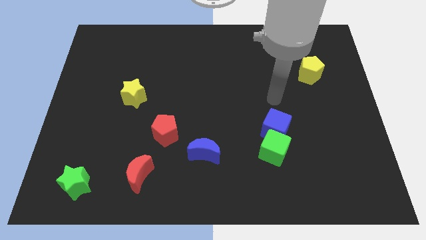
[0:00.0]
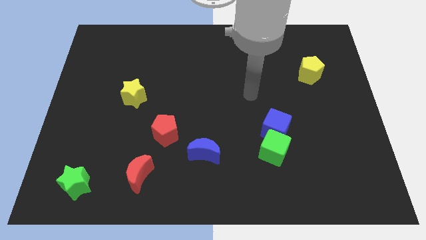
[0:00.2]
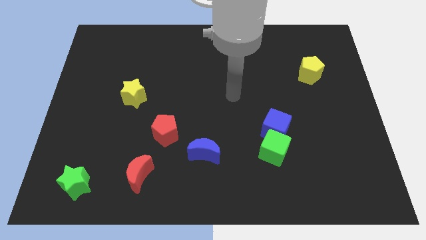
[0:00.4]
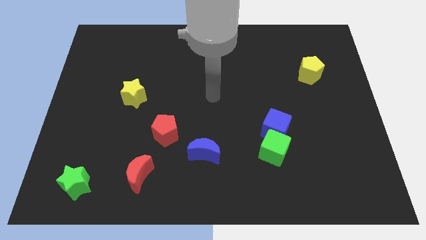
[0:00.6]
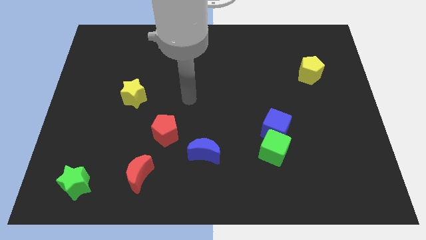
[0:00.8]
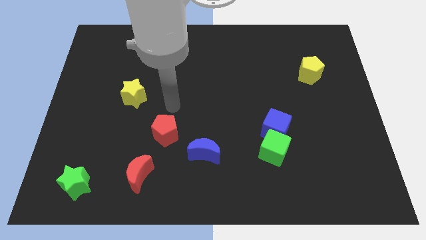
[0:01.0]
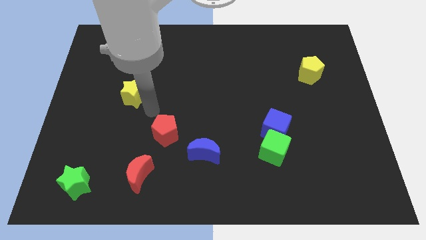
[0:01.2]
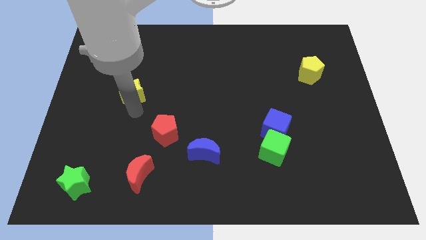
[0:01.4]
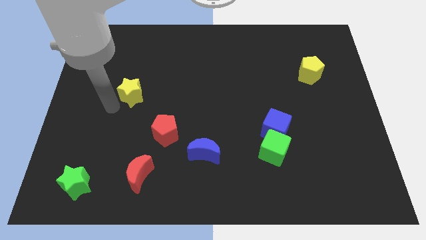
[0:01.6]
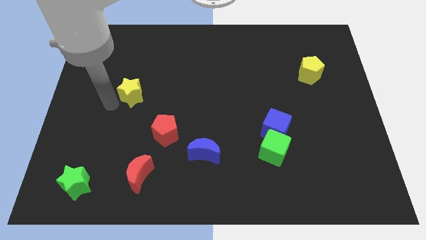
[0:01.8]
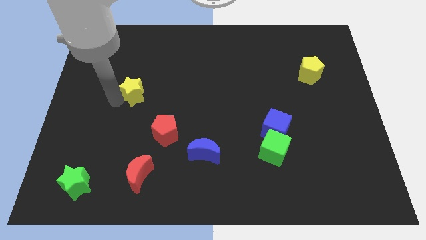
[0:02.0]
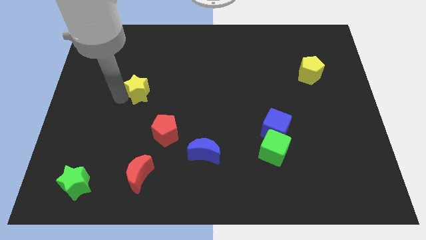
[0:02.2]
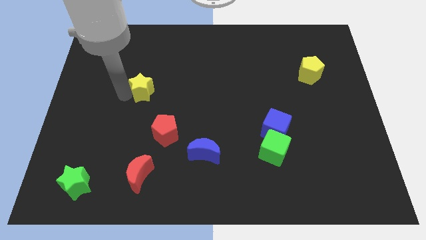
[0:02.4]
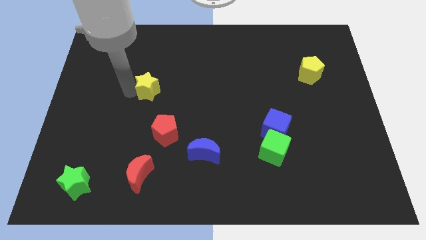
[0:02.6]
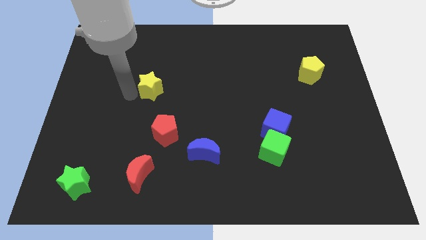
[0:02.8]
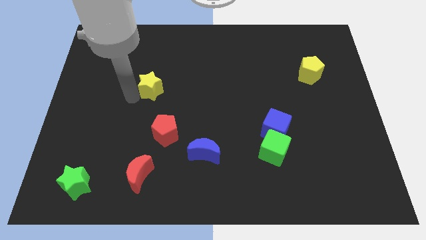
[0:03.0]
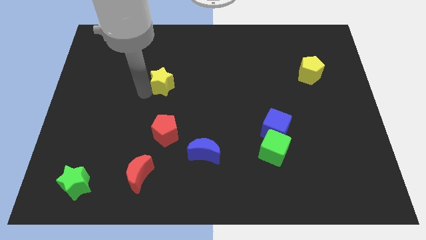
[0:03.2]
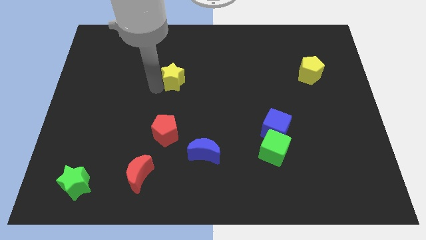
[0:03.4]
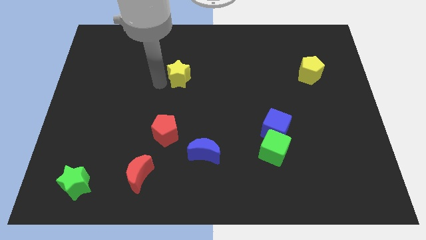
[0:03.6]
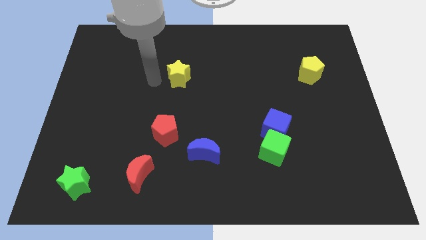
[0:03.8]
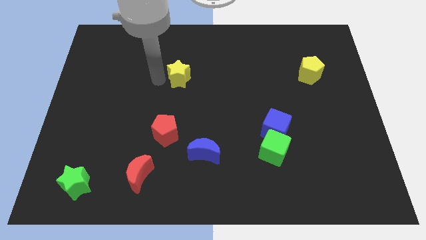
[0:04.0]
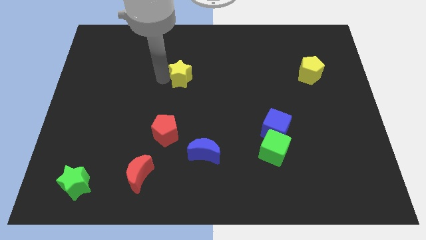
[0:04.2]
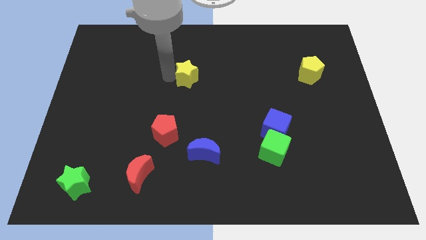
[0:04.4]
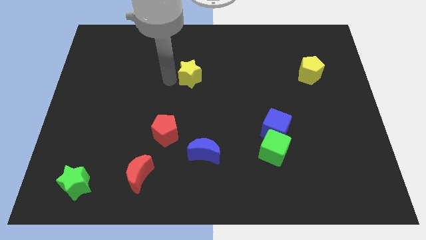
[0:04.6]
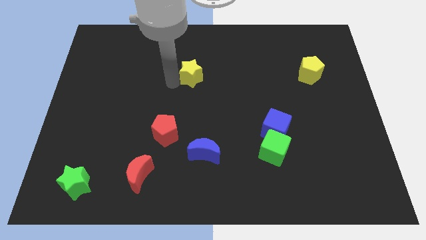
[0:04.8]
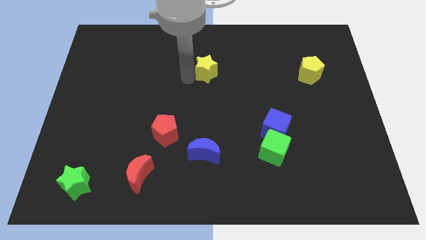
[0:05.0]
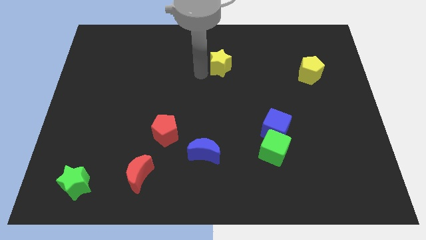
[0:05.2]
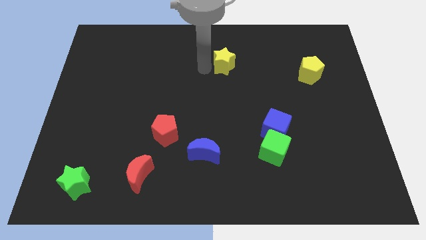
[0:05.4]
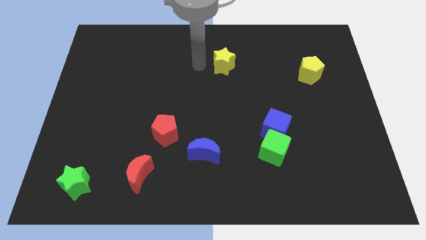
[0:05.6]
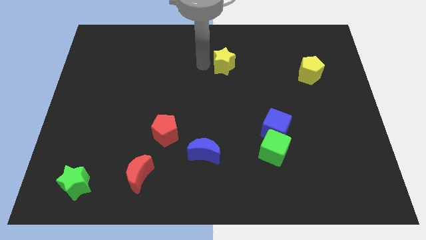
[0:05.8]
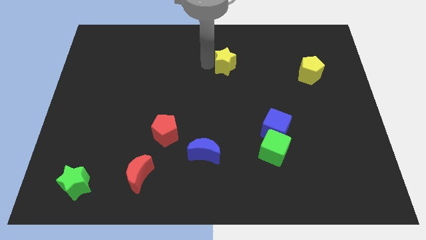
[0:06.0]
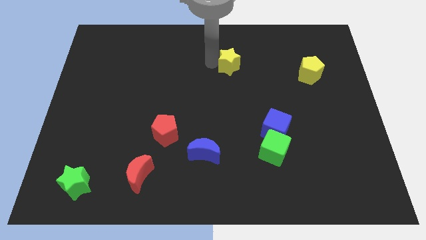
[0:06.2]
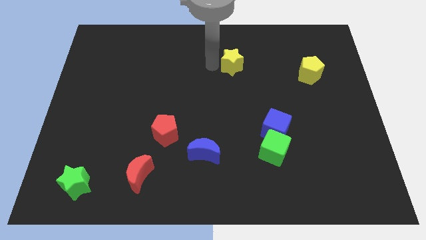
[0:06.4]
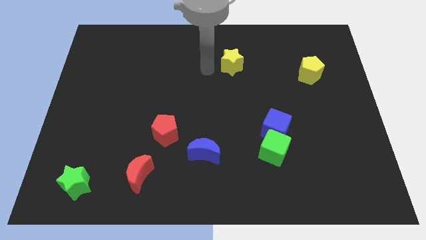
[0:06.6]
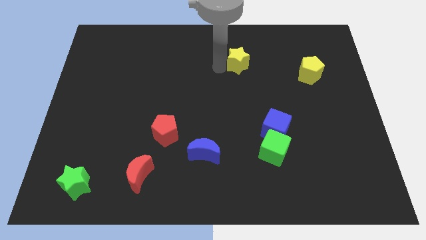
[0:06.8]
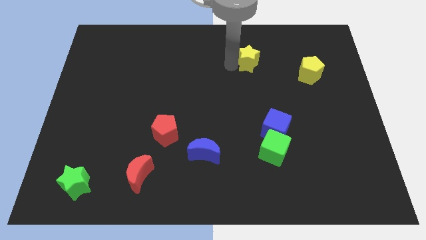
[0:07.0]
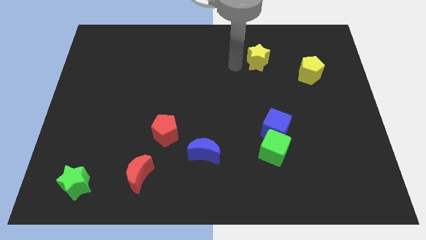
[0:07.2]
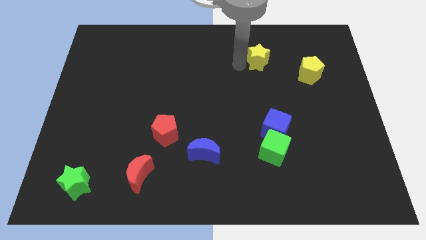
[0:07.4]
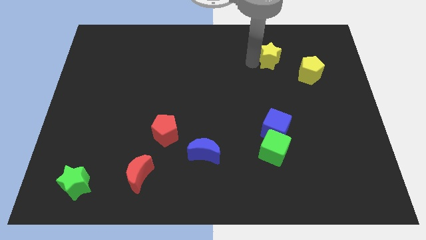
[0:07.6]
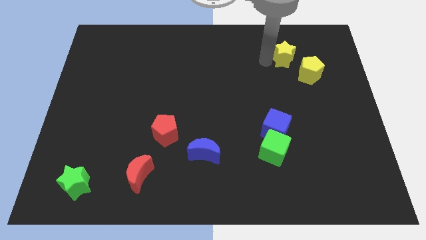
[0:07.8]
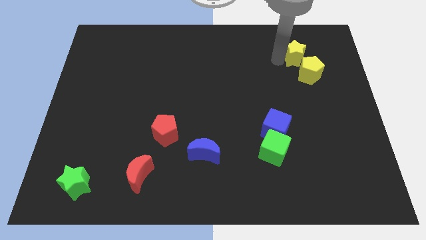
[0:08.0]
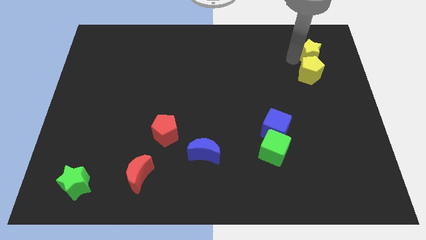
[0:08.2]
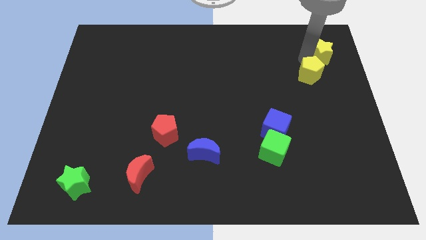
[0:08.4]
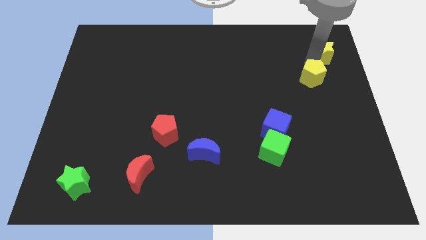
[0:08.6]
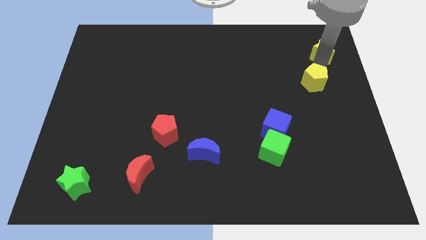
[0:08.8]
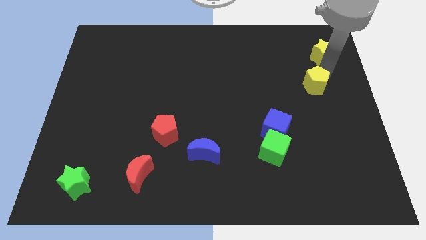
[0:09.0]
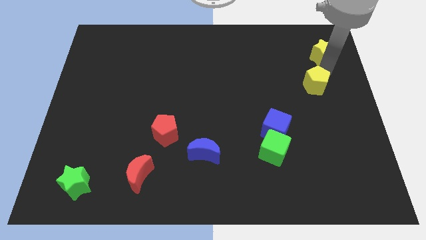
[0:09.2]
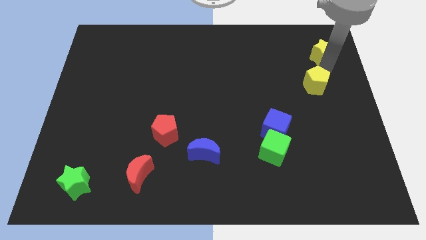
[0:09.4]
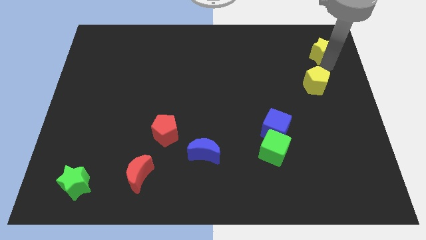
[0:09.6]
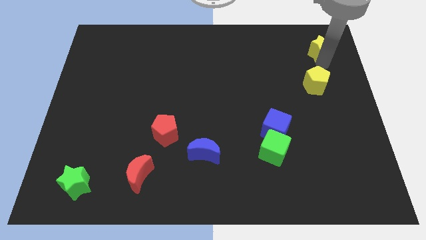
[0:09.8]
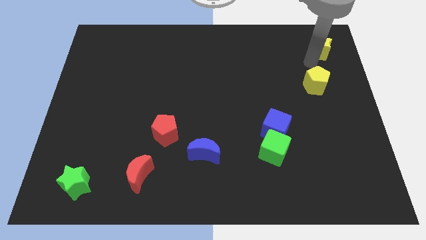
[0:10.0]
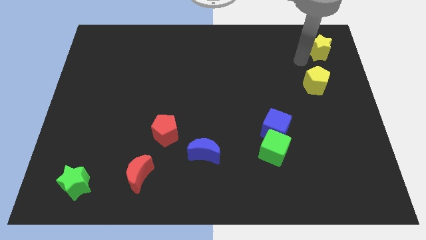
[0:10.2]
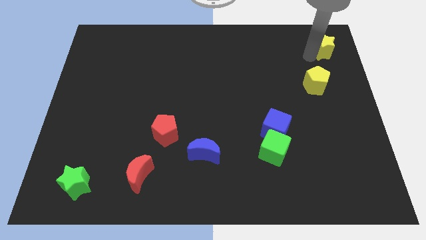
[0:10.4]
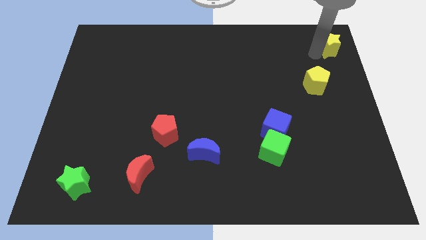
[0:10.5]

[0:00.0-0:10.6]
push the yellow star to the top right of the board

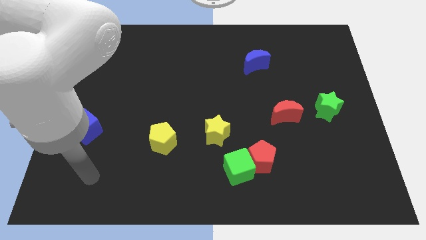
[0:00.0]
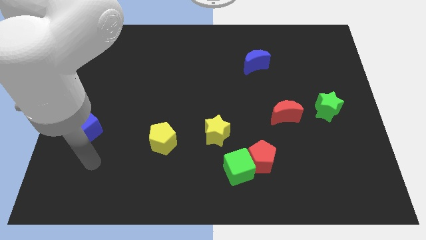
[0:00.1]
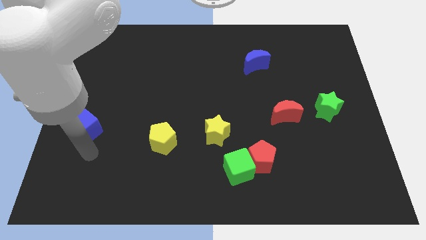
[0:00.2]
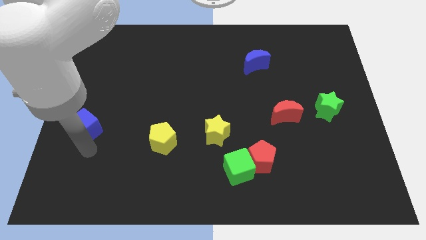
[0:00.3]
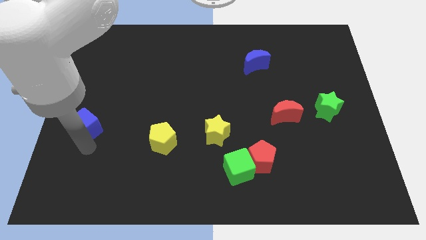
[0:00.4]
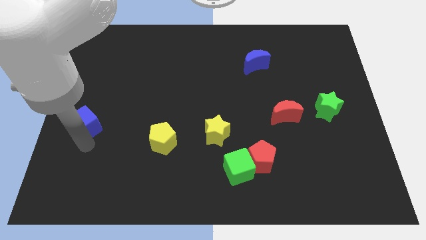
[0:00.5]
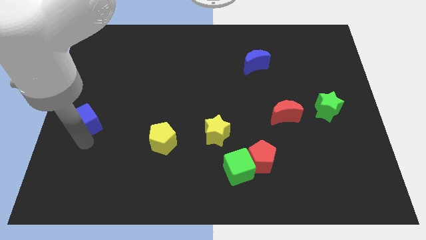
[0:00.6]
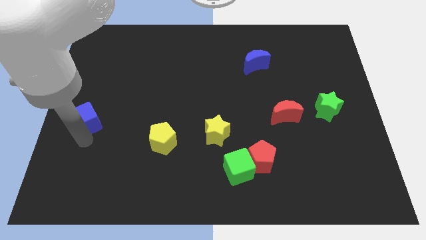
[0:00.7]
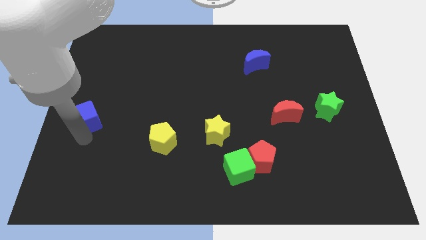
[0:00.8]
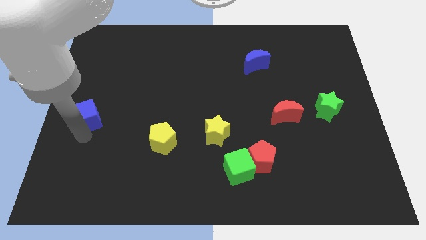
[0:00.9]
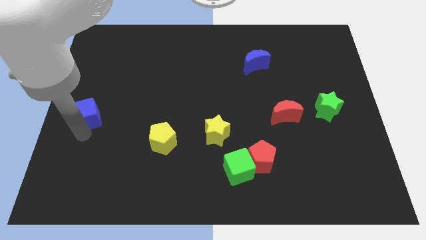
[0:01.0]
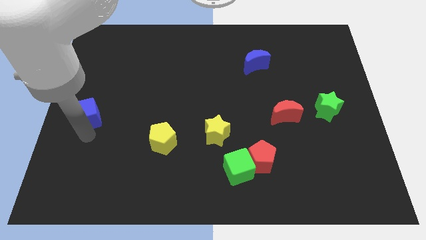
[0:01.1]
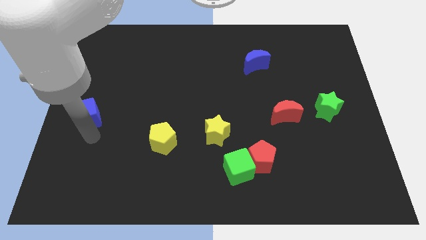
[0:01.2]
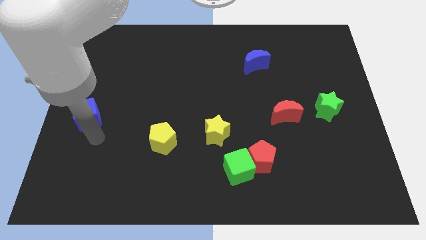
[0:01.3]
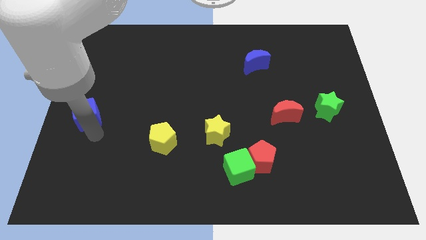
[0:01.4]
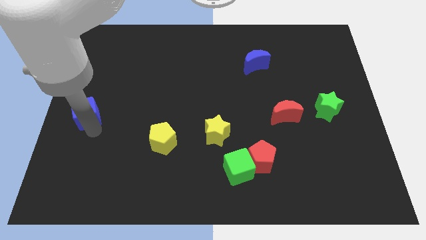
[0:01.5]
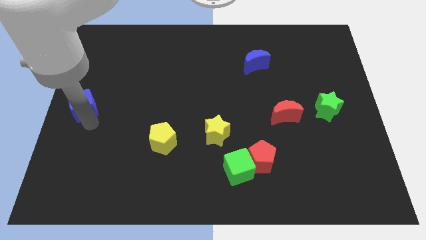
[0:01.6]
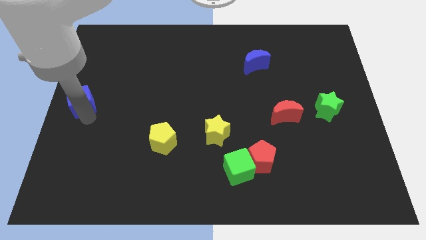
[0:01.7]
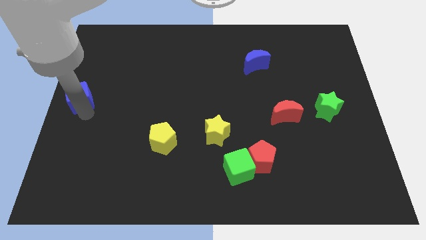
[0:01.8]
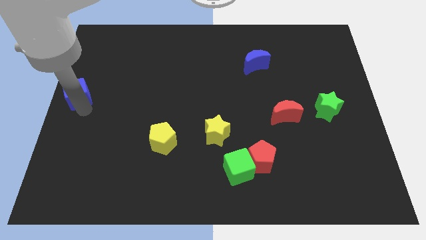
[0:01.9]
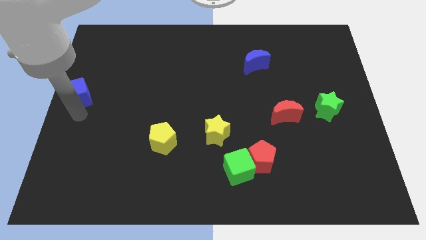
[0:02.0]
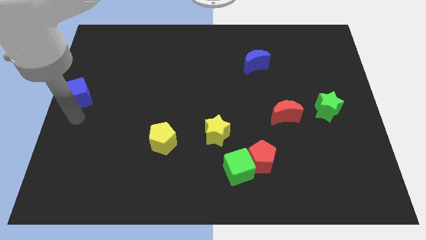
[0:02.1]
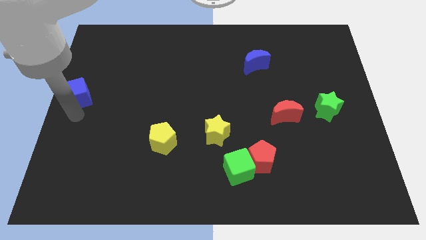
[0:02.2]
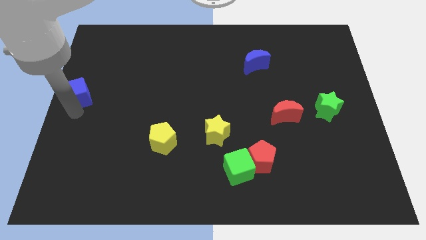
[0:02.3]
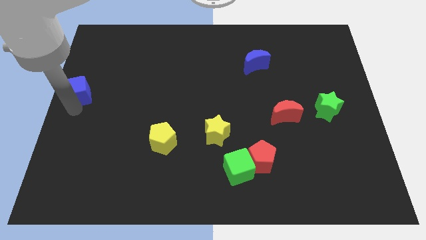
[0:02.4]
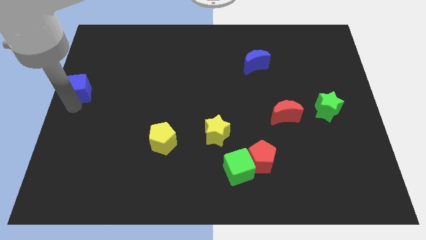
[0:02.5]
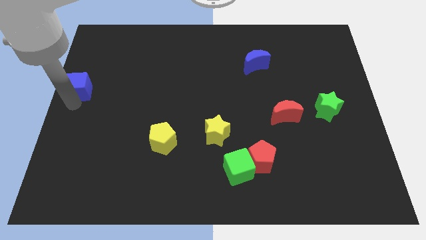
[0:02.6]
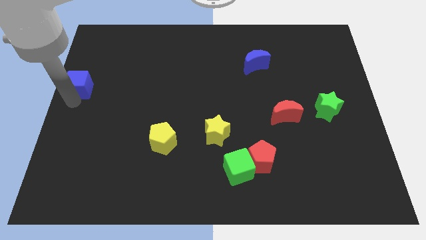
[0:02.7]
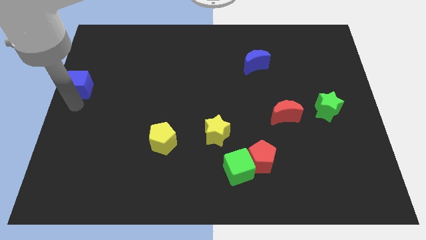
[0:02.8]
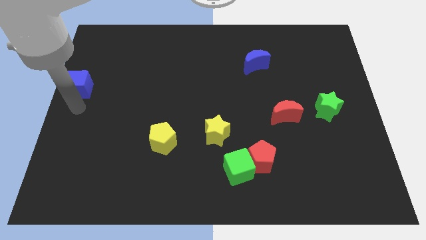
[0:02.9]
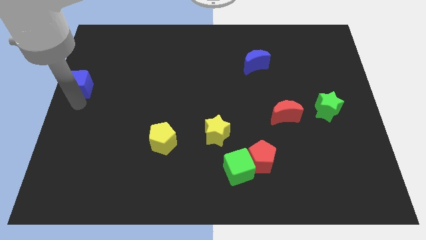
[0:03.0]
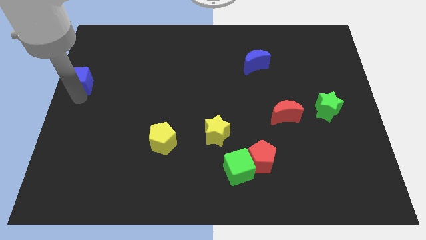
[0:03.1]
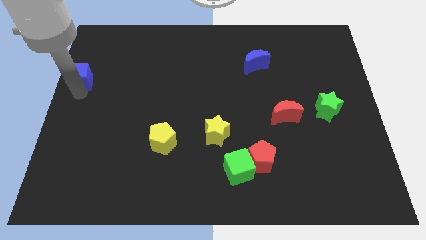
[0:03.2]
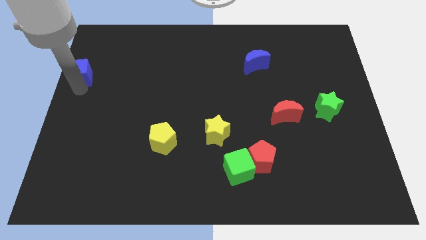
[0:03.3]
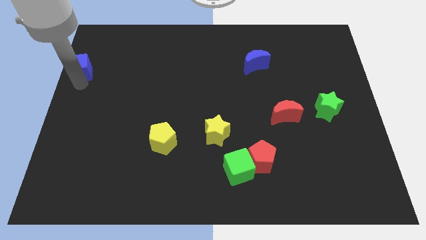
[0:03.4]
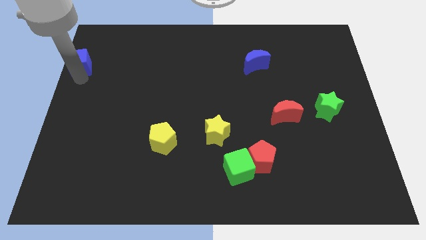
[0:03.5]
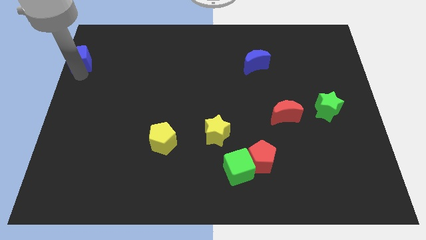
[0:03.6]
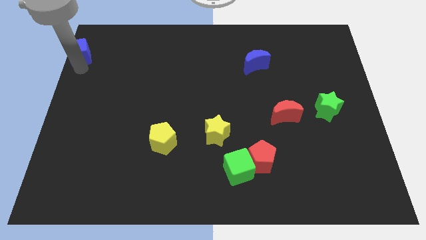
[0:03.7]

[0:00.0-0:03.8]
put the blue cube to the upper left corner
